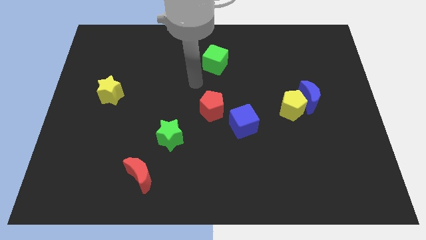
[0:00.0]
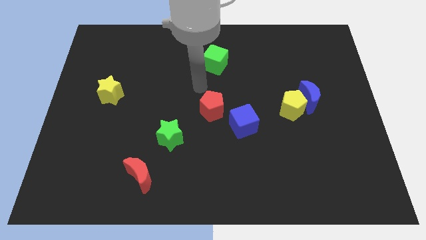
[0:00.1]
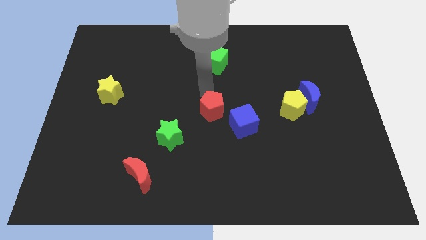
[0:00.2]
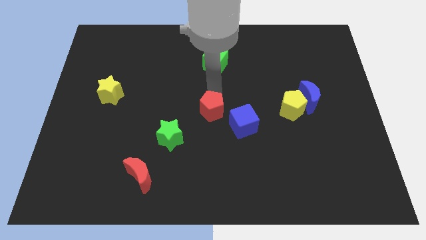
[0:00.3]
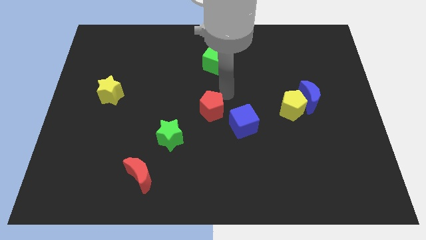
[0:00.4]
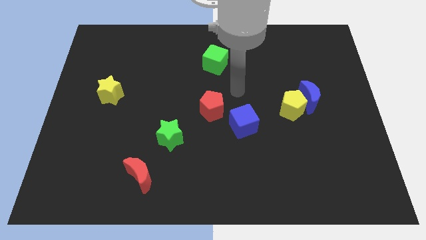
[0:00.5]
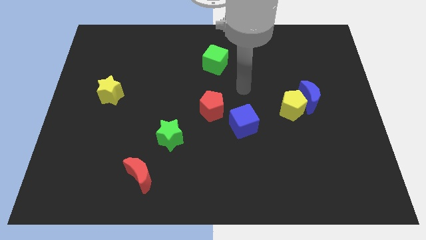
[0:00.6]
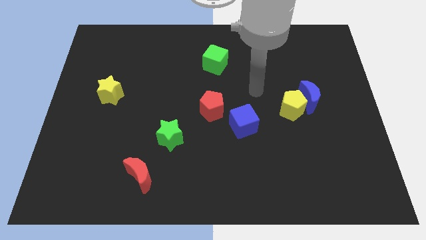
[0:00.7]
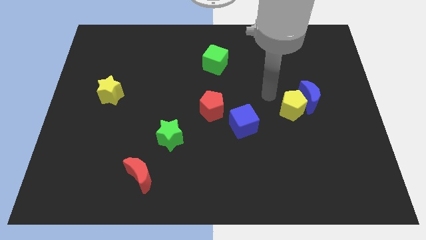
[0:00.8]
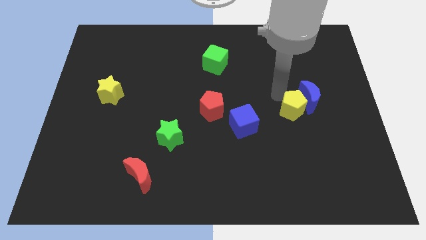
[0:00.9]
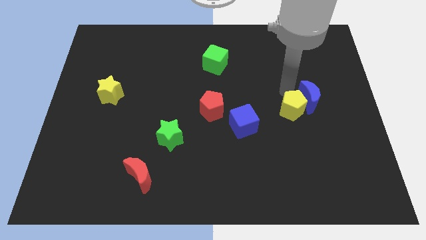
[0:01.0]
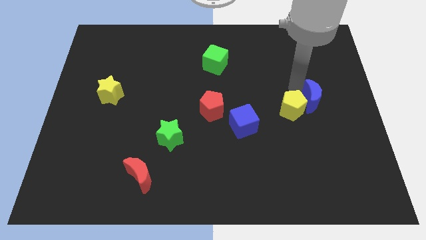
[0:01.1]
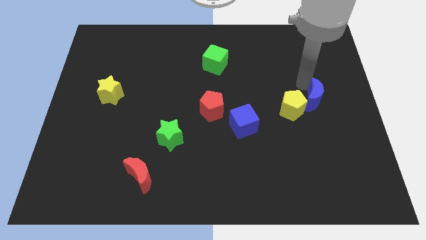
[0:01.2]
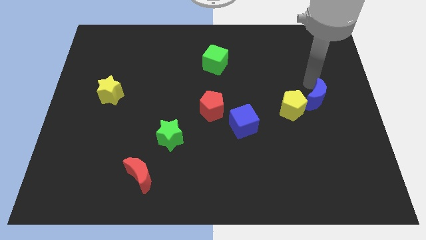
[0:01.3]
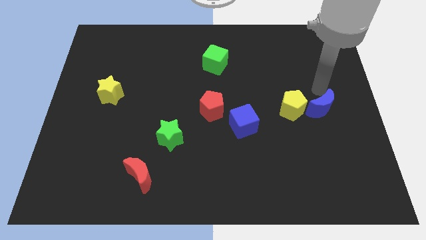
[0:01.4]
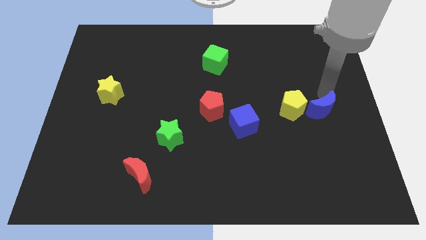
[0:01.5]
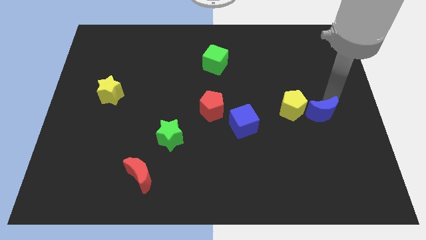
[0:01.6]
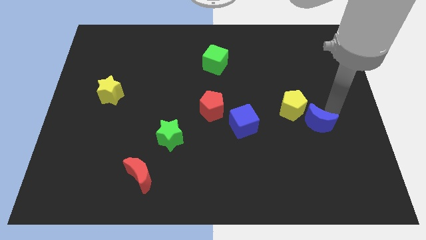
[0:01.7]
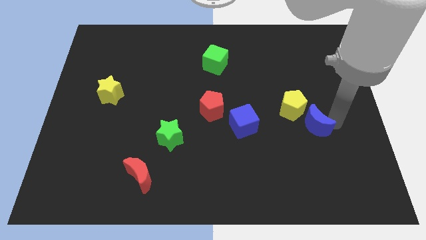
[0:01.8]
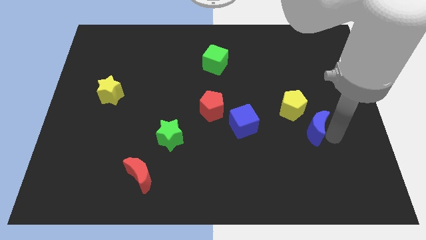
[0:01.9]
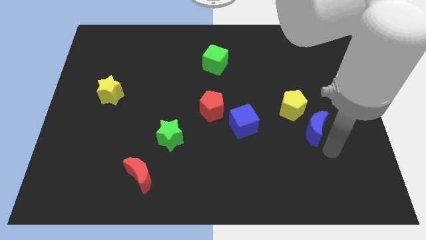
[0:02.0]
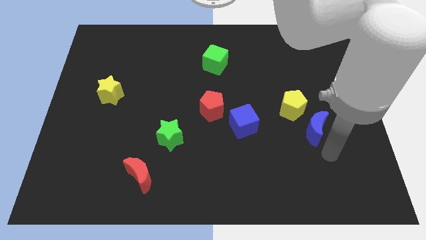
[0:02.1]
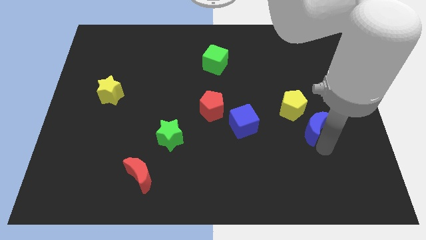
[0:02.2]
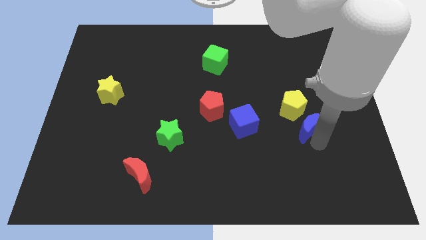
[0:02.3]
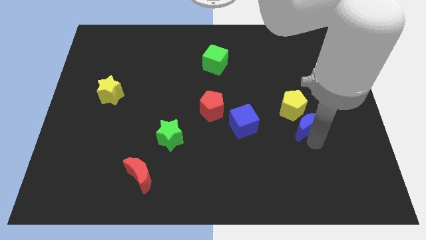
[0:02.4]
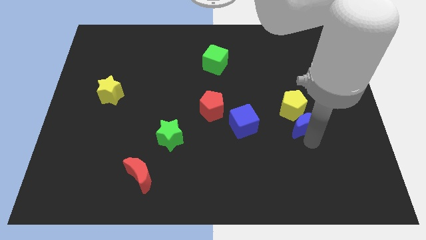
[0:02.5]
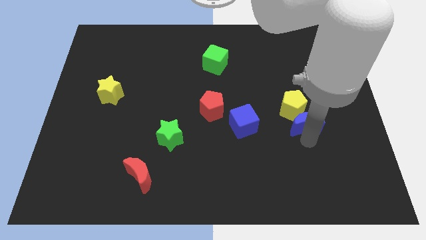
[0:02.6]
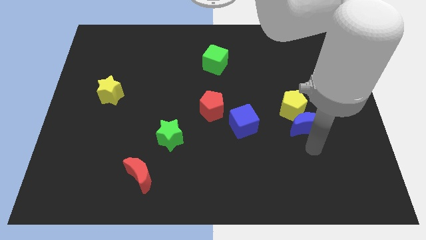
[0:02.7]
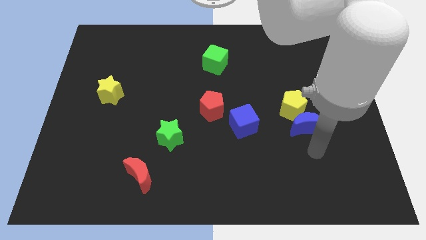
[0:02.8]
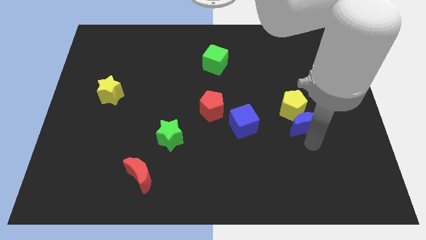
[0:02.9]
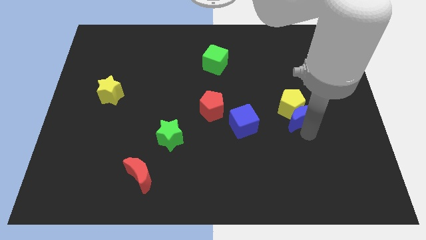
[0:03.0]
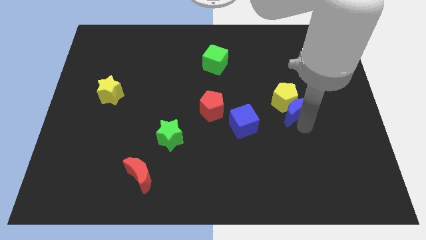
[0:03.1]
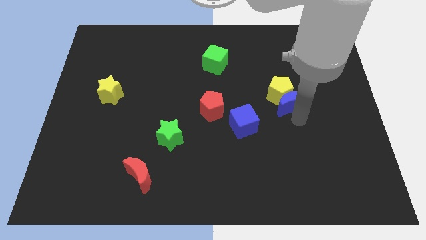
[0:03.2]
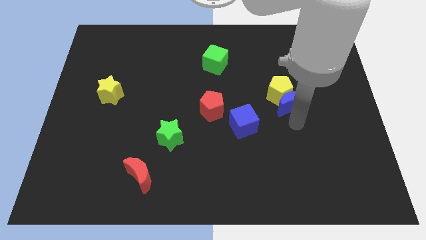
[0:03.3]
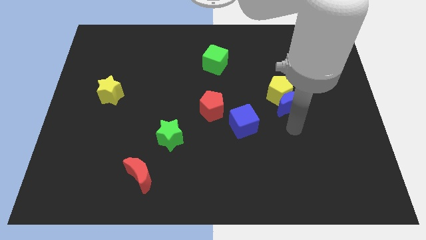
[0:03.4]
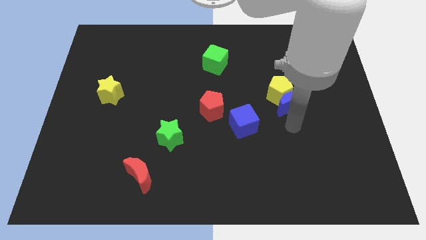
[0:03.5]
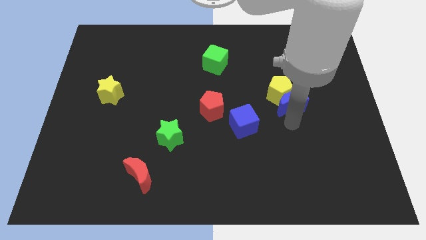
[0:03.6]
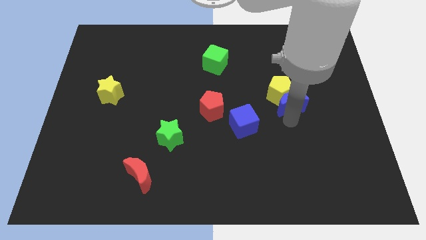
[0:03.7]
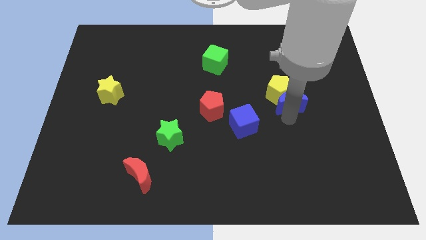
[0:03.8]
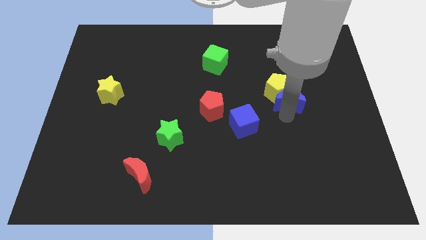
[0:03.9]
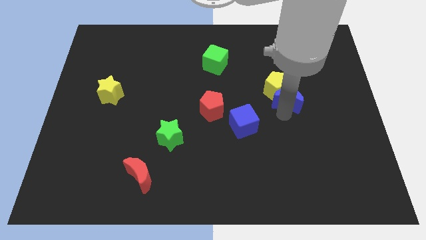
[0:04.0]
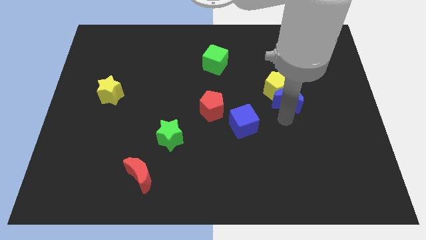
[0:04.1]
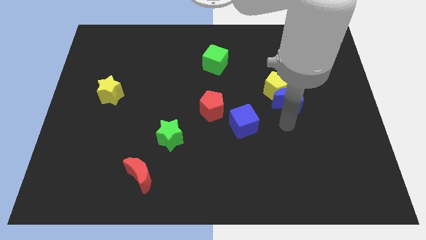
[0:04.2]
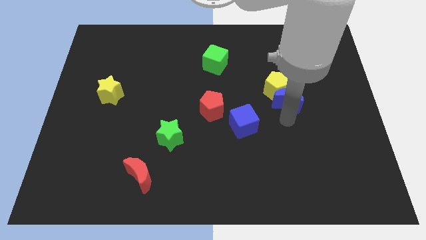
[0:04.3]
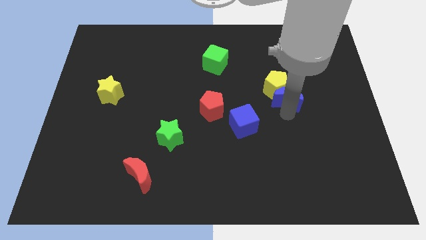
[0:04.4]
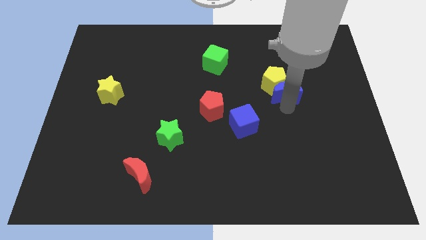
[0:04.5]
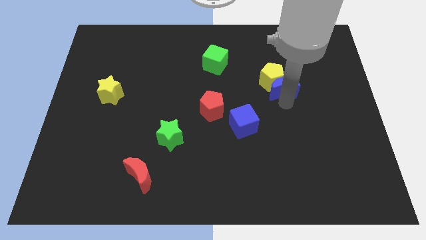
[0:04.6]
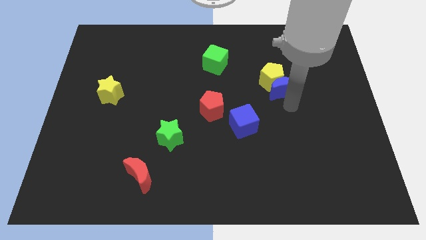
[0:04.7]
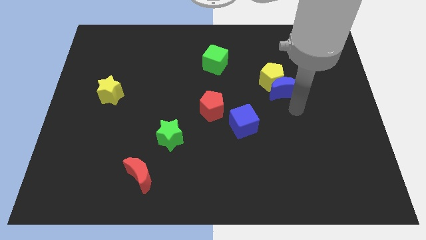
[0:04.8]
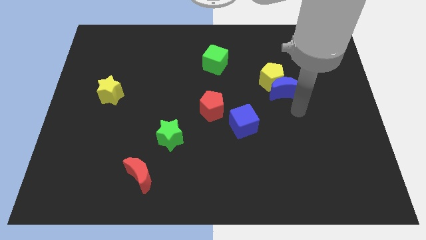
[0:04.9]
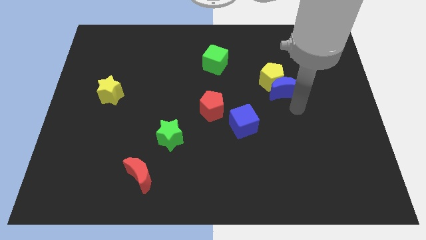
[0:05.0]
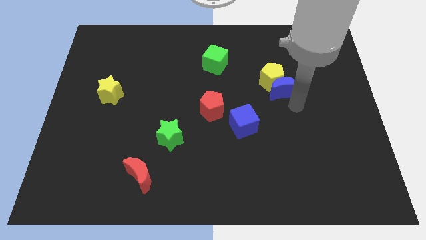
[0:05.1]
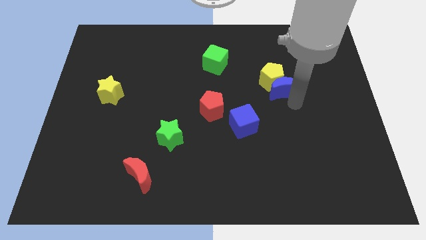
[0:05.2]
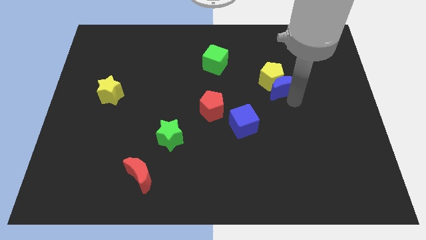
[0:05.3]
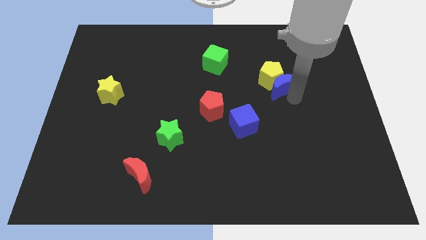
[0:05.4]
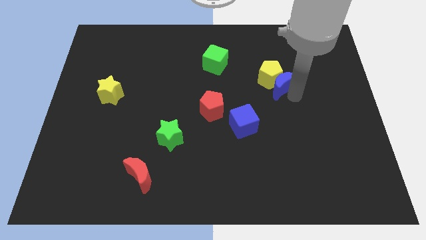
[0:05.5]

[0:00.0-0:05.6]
slightly push the blue moon up and then to the left

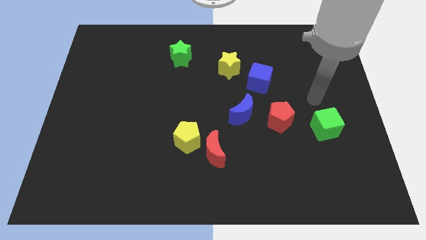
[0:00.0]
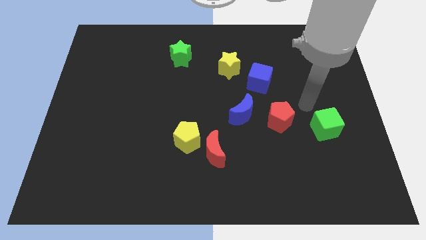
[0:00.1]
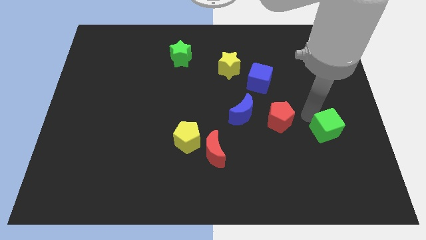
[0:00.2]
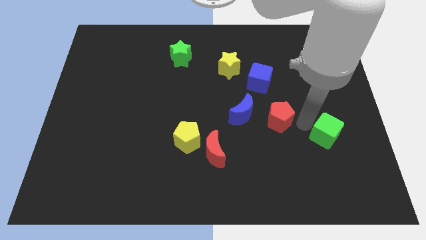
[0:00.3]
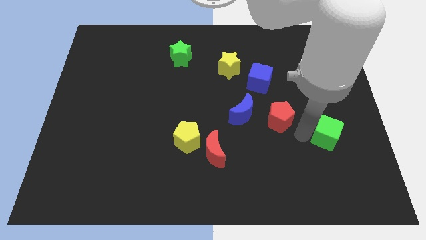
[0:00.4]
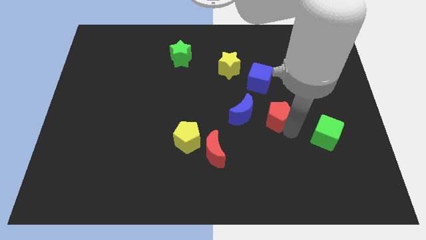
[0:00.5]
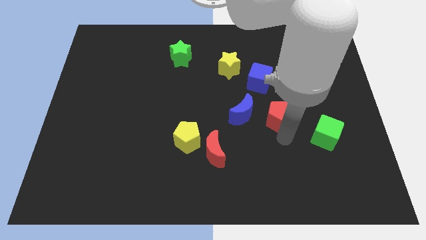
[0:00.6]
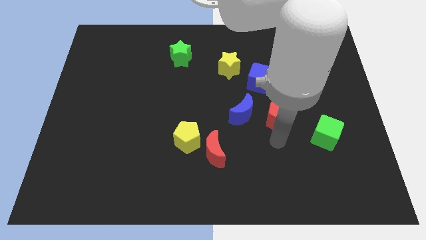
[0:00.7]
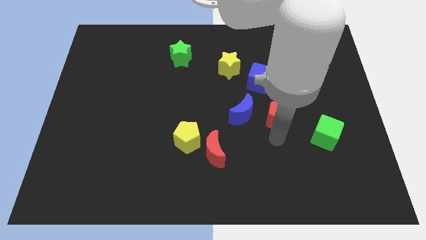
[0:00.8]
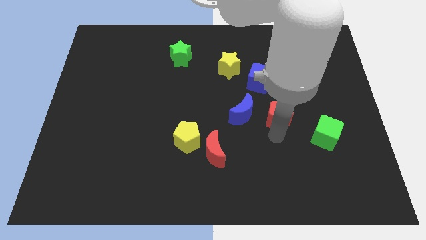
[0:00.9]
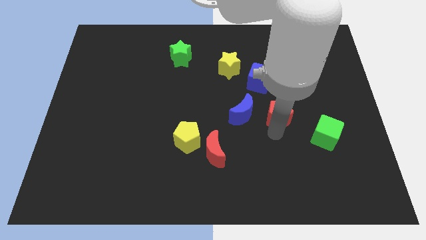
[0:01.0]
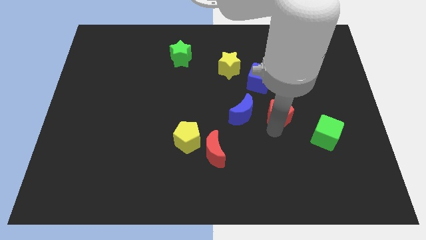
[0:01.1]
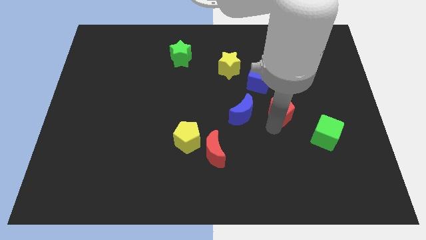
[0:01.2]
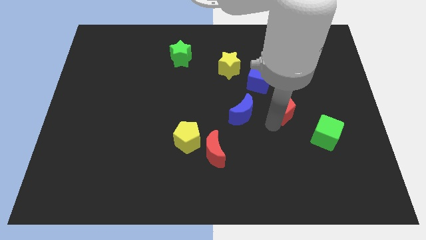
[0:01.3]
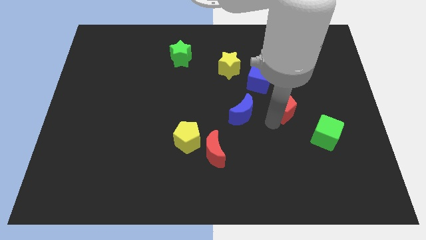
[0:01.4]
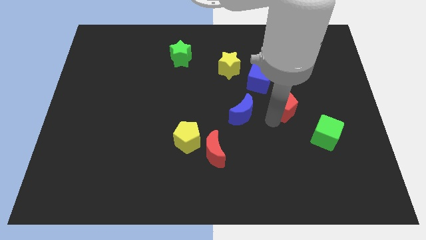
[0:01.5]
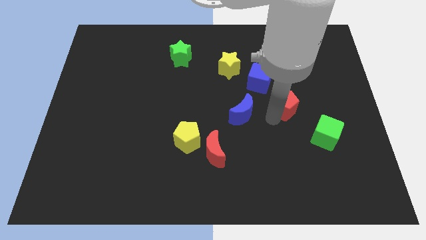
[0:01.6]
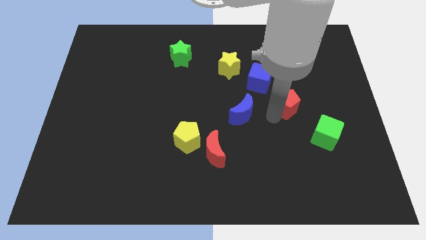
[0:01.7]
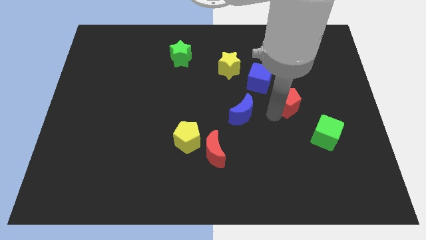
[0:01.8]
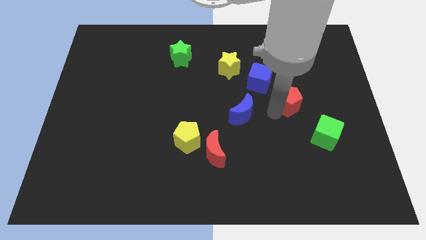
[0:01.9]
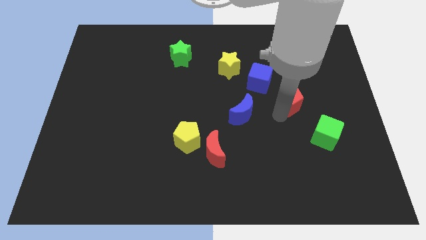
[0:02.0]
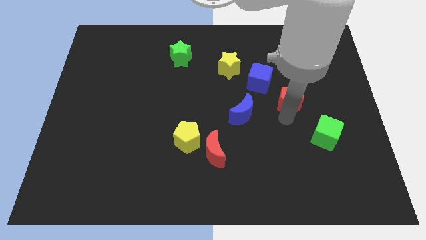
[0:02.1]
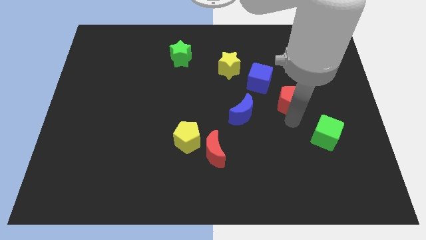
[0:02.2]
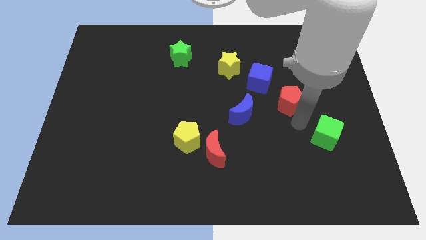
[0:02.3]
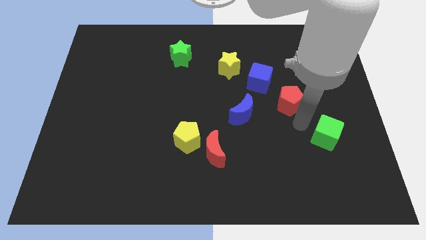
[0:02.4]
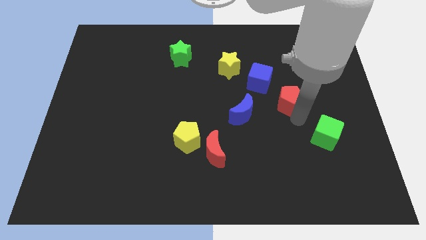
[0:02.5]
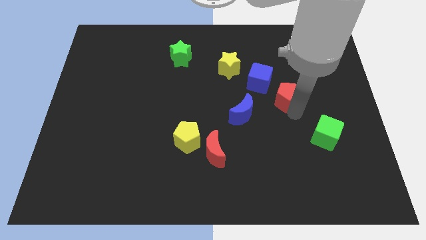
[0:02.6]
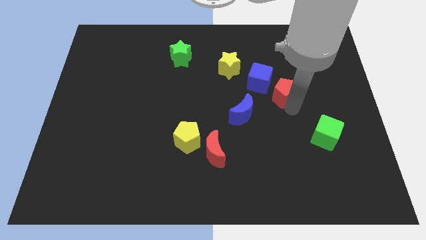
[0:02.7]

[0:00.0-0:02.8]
slightly move the red pentagon up
